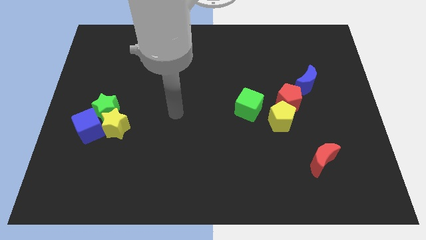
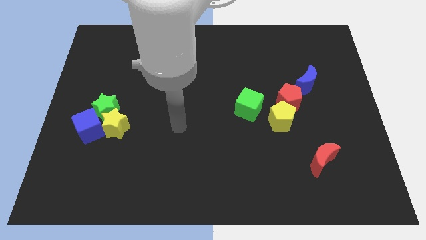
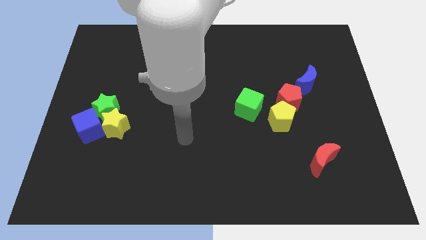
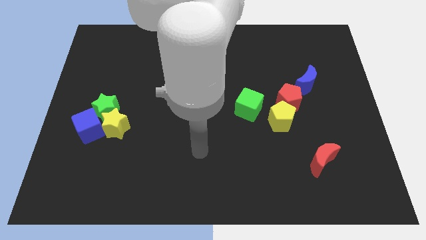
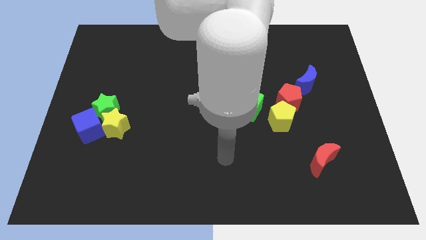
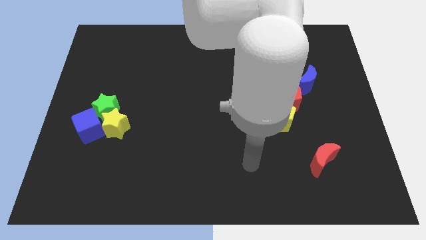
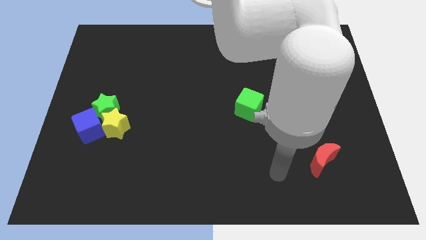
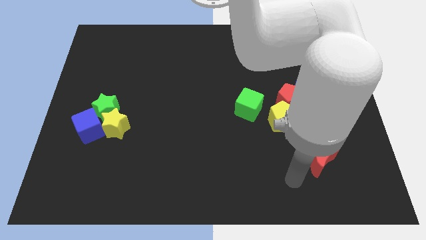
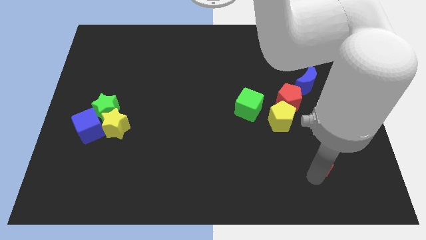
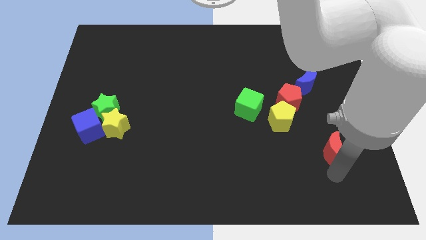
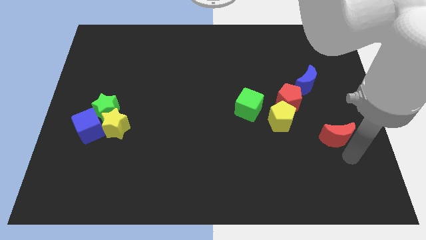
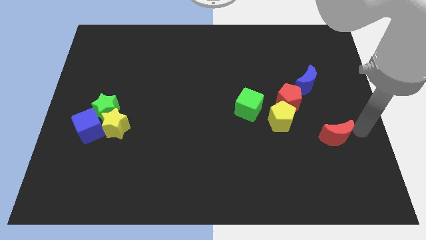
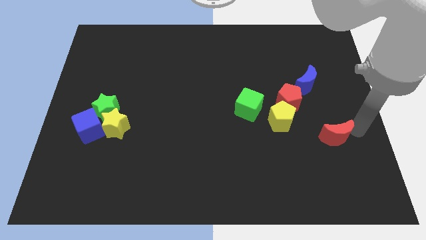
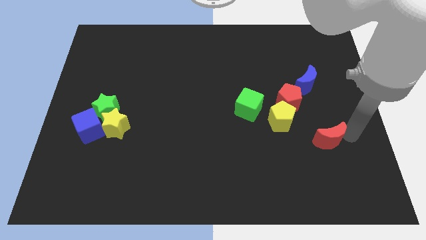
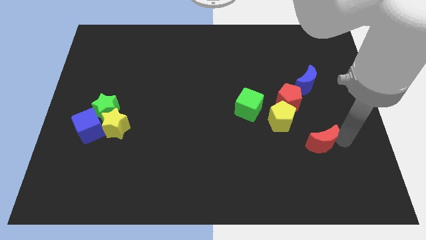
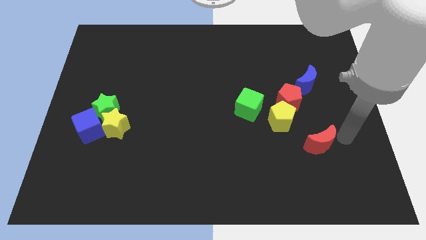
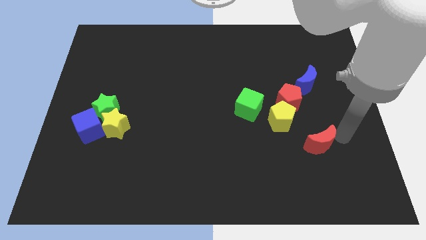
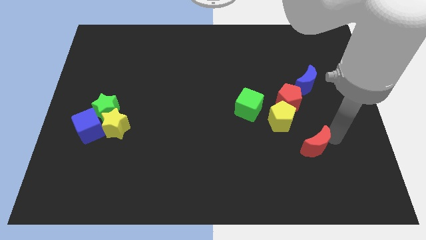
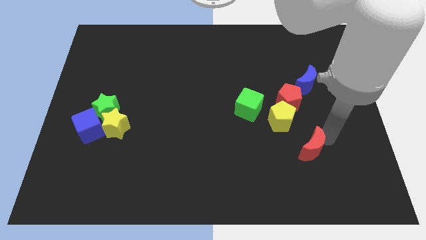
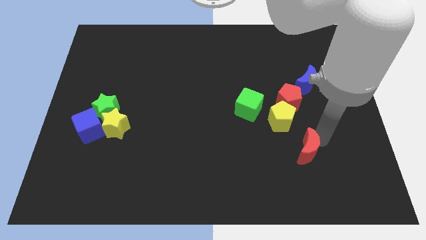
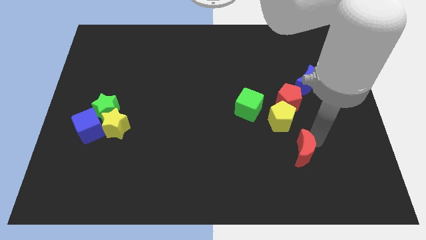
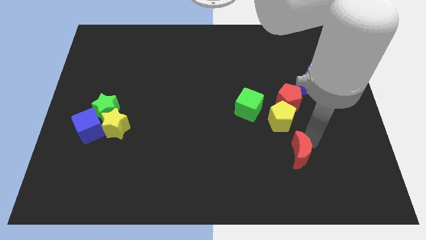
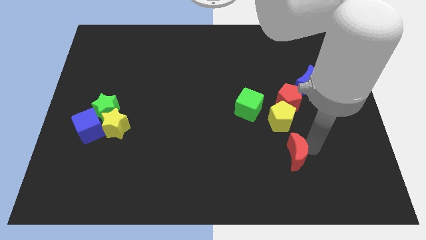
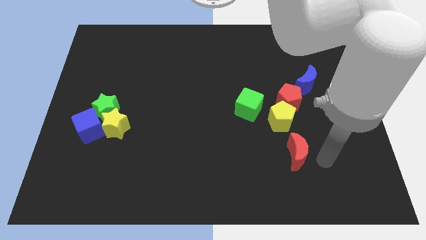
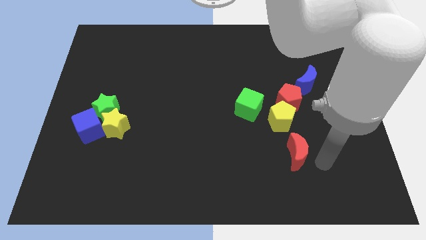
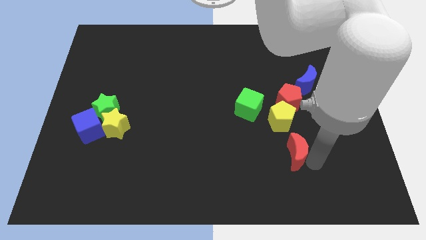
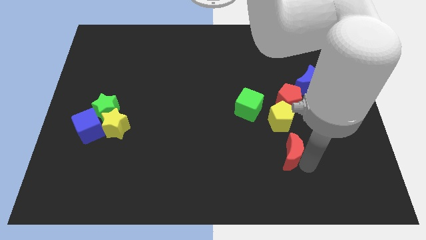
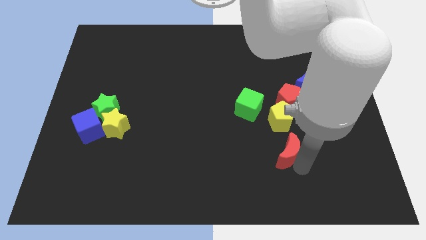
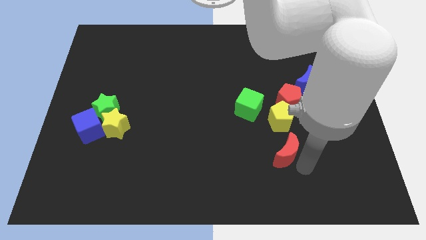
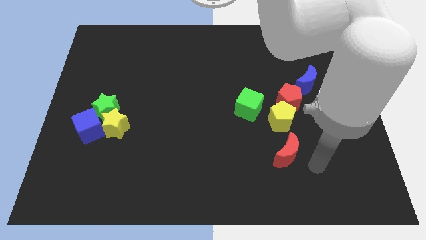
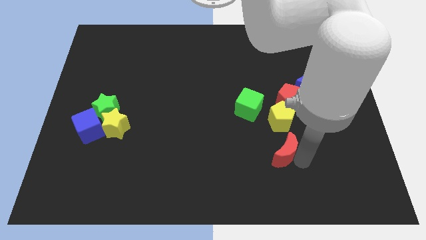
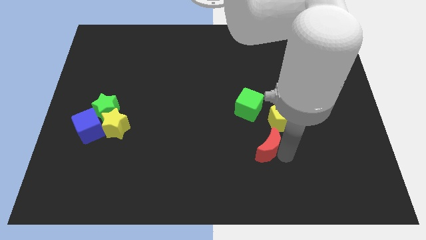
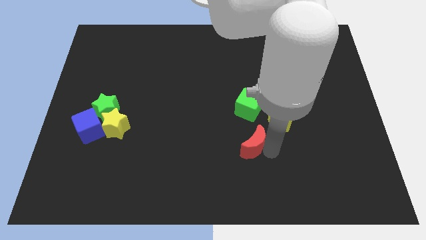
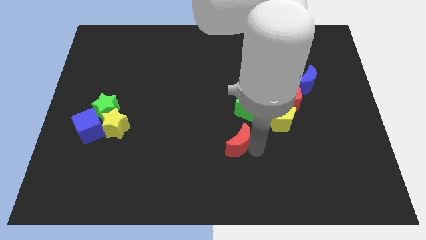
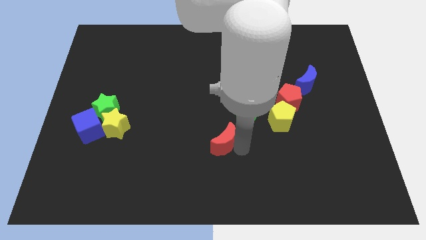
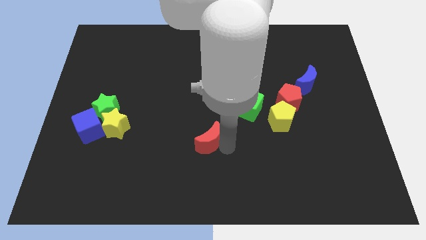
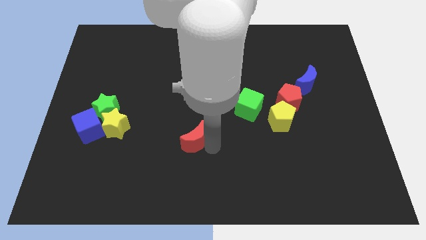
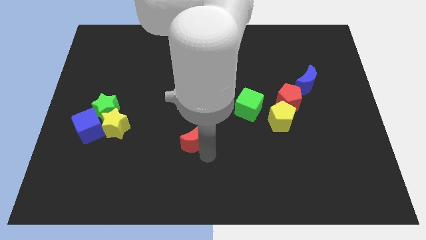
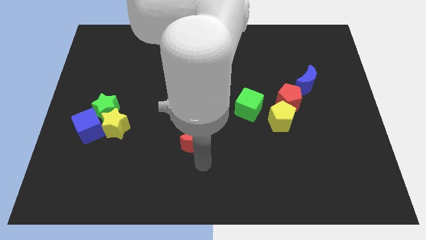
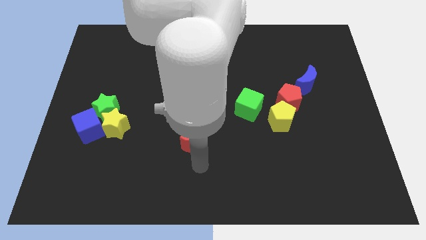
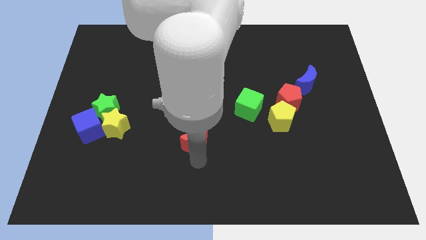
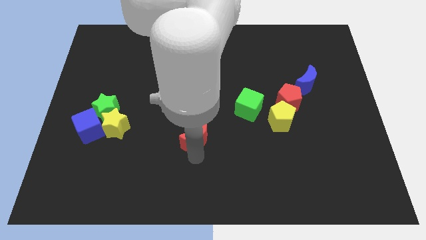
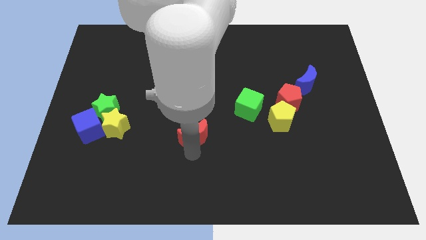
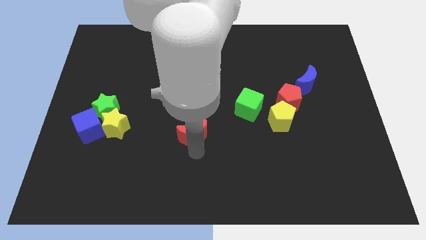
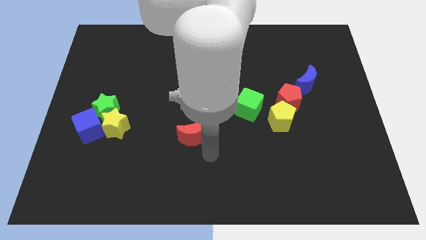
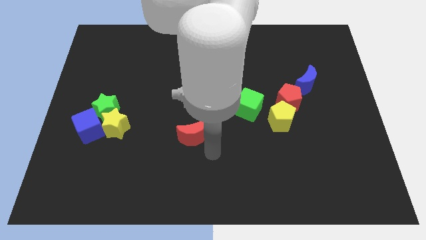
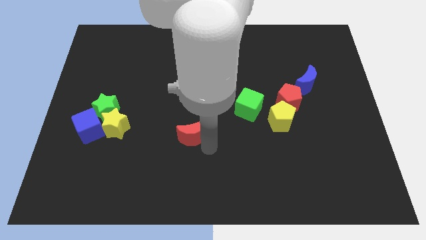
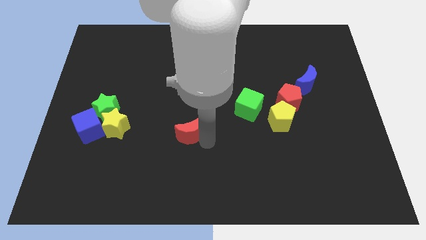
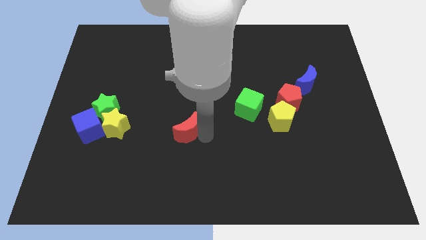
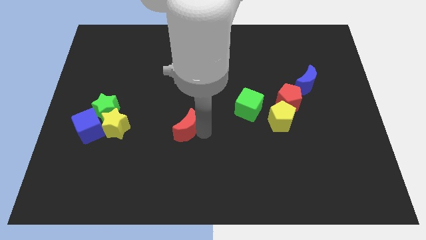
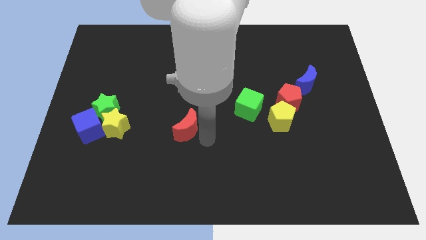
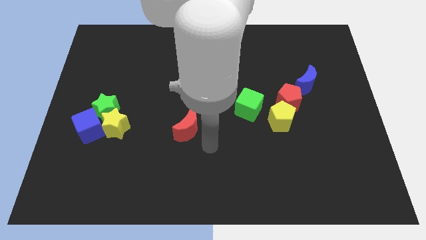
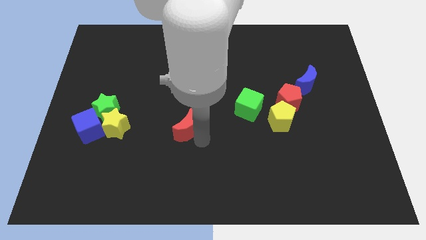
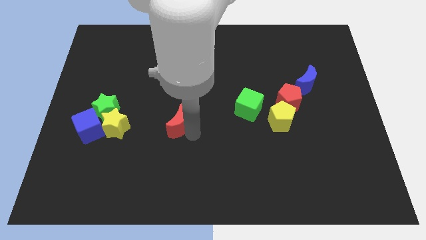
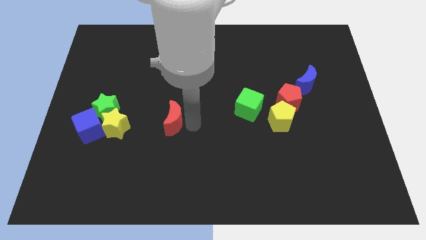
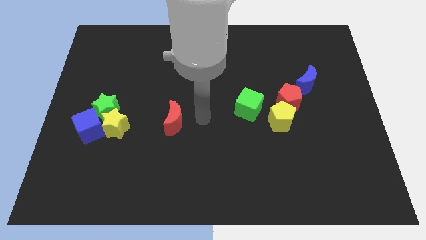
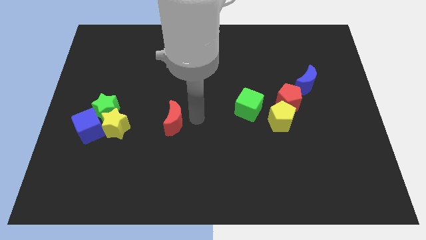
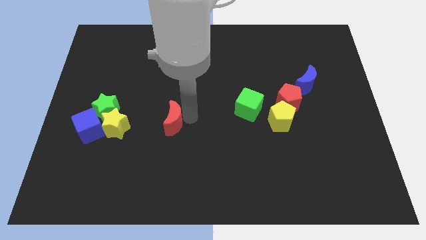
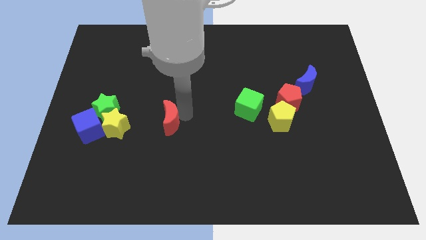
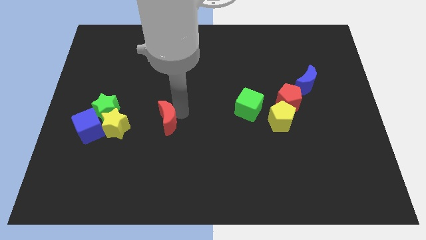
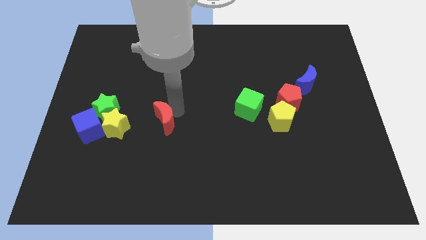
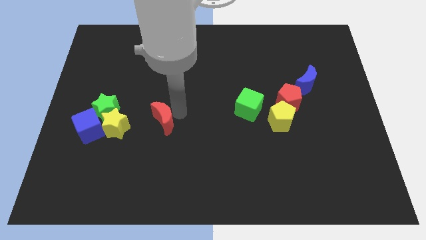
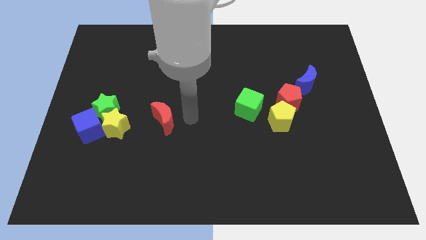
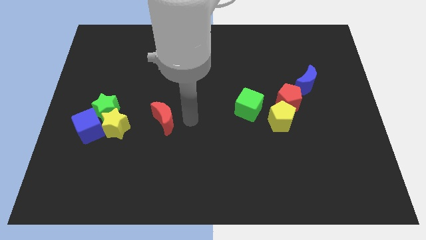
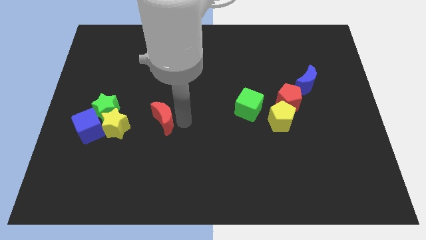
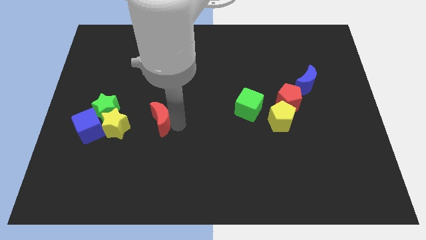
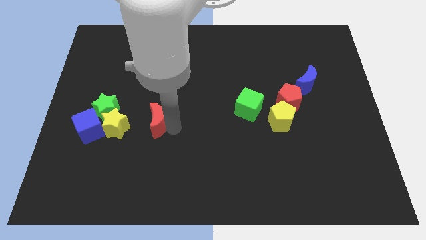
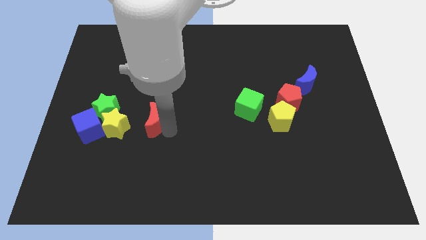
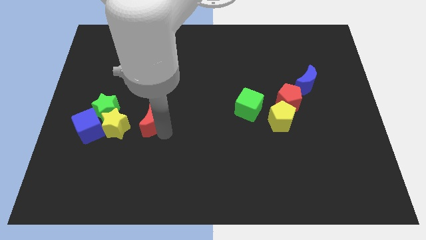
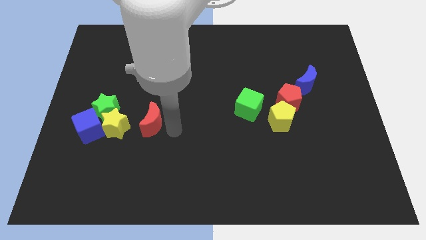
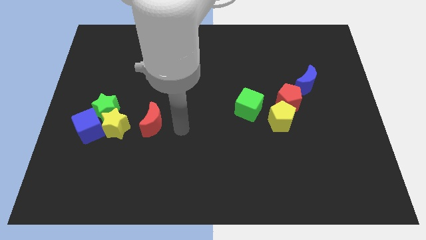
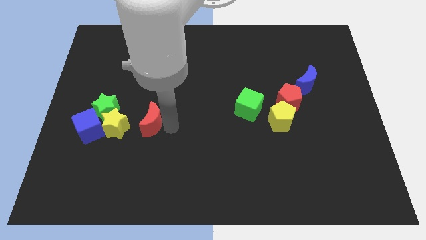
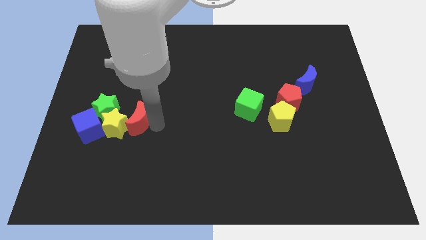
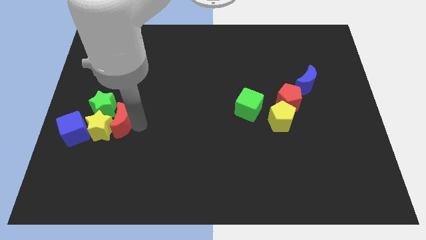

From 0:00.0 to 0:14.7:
put the red moon towards the green star
